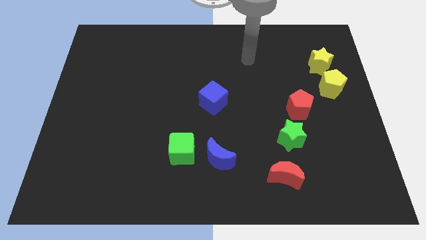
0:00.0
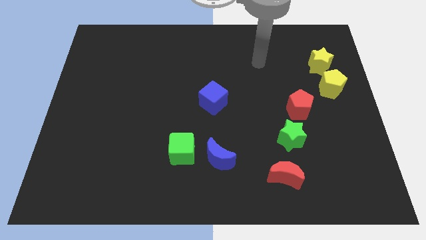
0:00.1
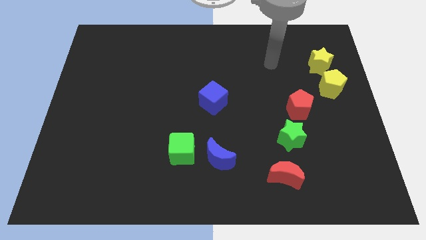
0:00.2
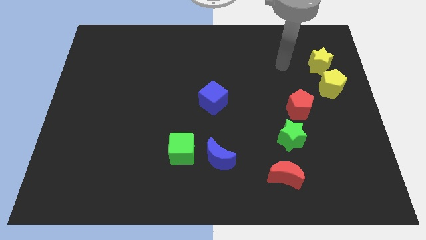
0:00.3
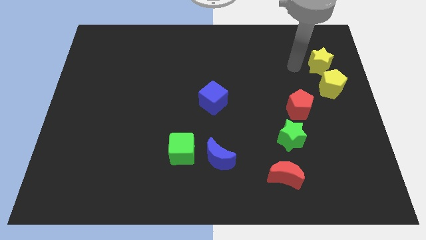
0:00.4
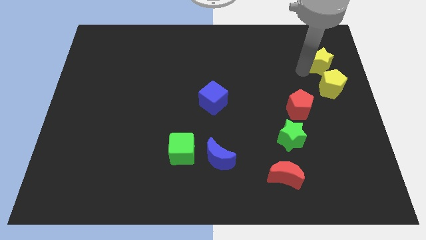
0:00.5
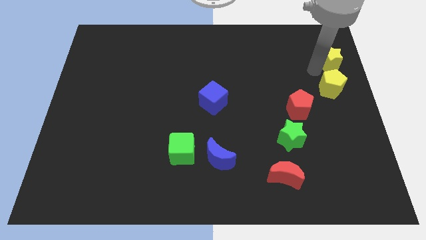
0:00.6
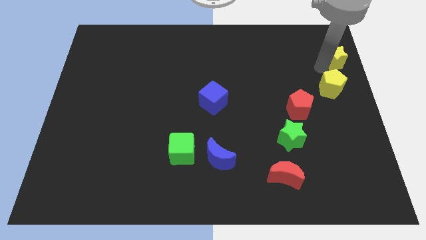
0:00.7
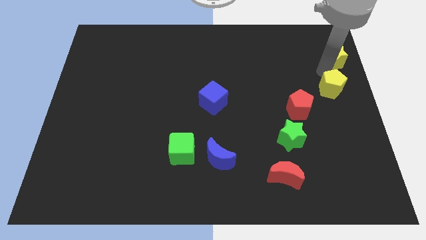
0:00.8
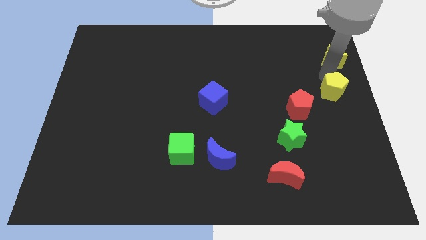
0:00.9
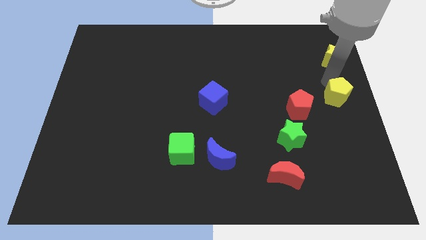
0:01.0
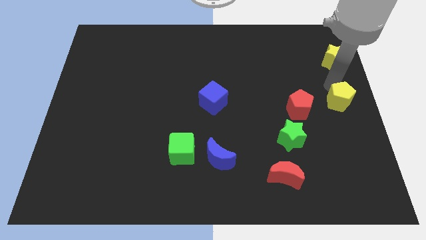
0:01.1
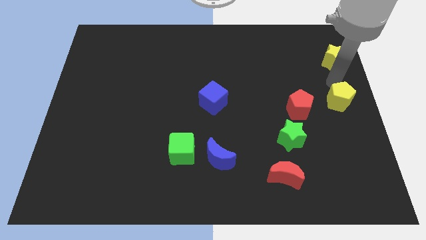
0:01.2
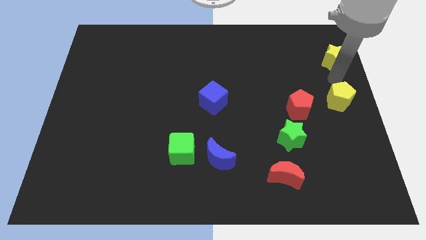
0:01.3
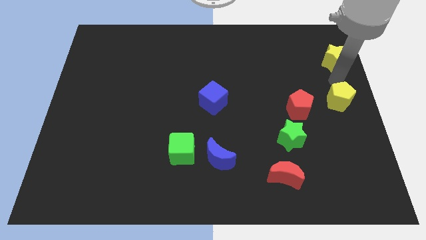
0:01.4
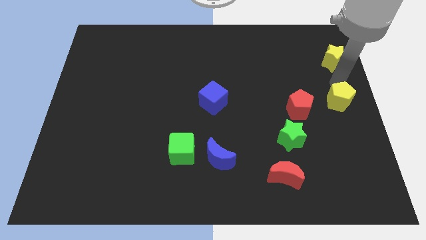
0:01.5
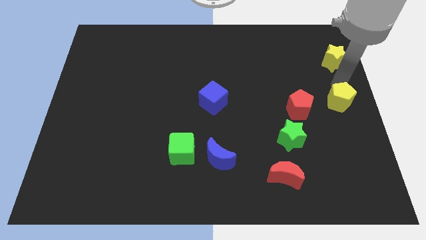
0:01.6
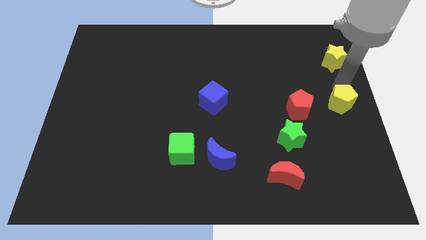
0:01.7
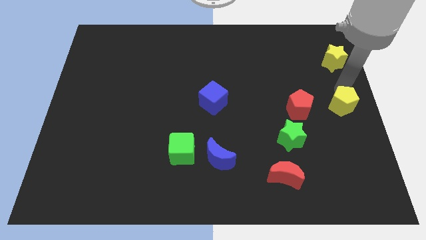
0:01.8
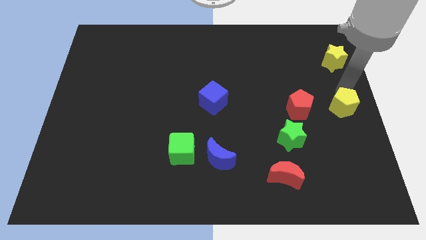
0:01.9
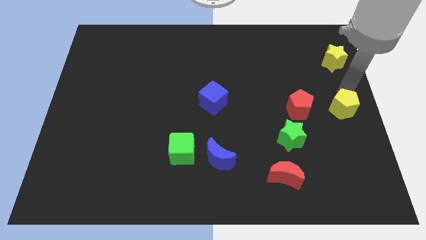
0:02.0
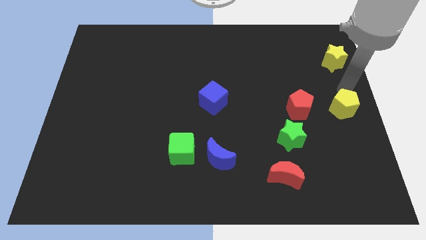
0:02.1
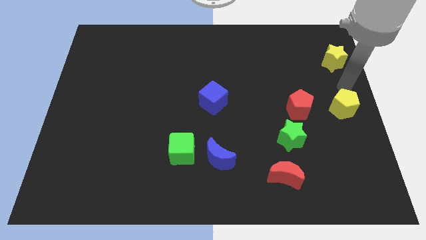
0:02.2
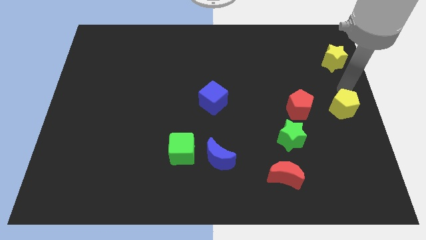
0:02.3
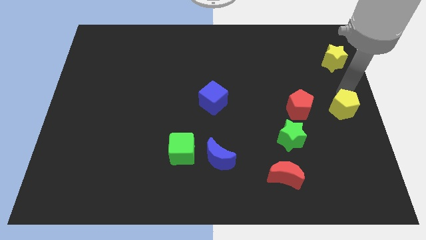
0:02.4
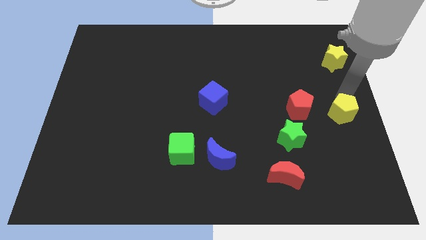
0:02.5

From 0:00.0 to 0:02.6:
slightly slide the yellow pentagon downwards

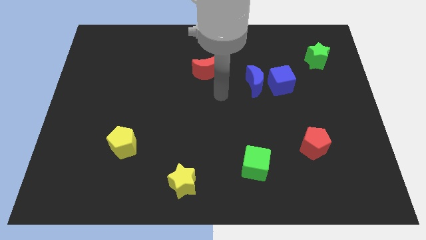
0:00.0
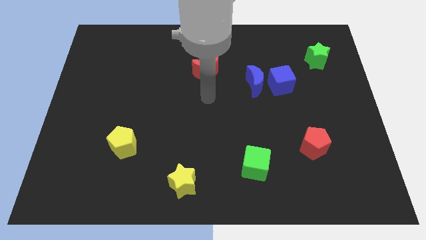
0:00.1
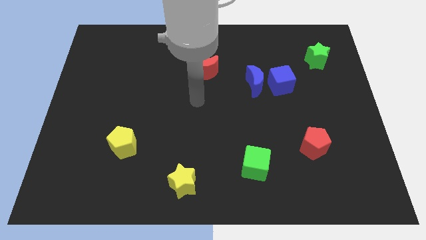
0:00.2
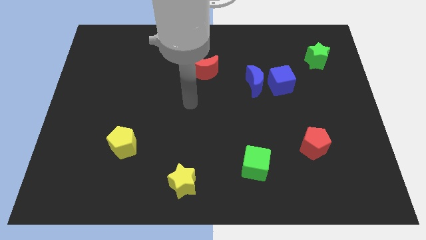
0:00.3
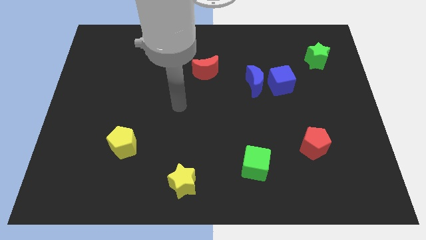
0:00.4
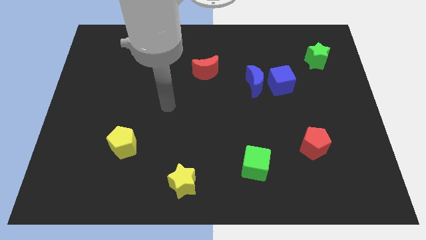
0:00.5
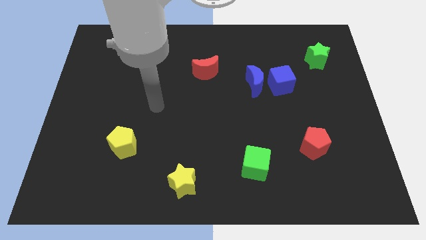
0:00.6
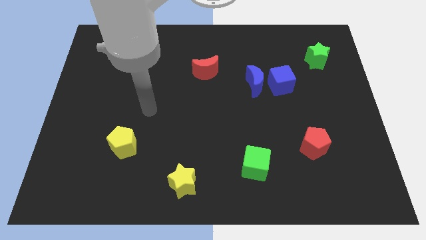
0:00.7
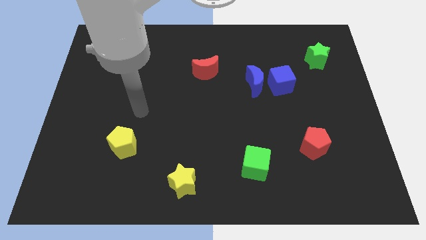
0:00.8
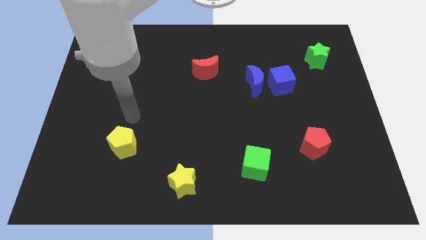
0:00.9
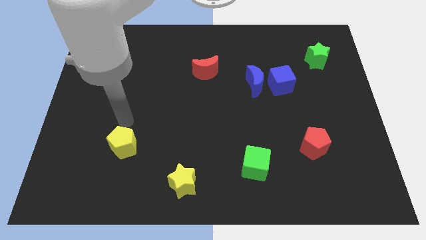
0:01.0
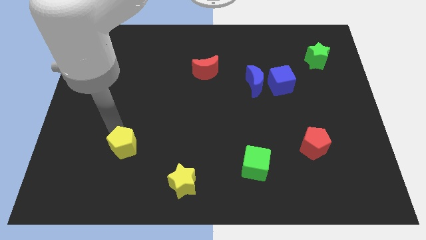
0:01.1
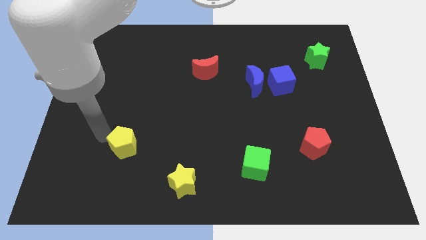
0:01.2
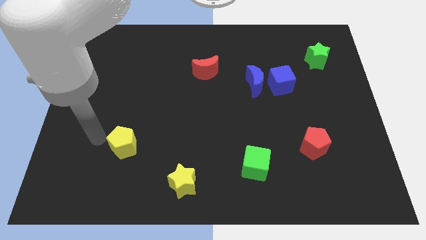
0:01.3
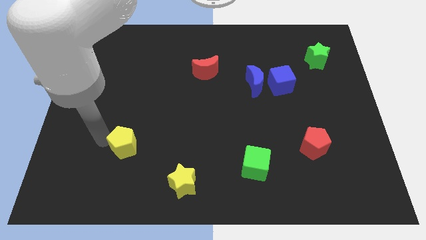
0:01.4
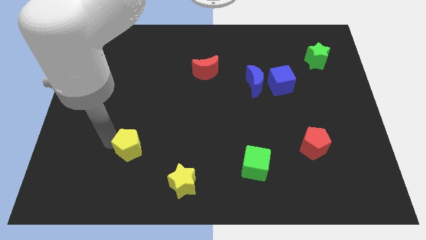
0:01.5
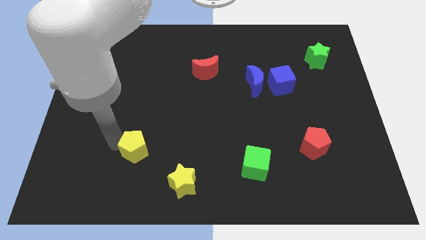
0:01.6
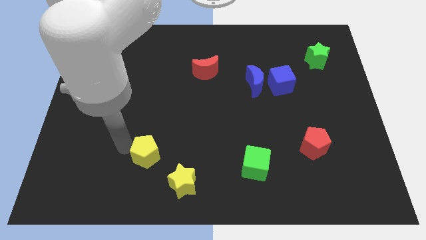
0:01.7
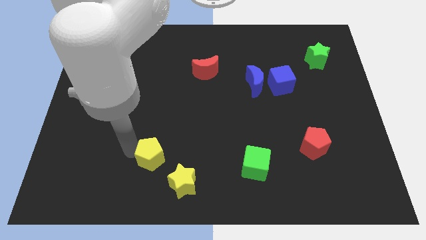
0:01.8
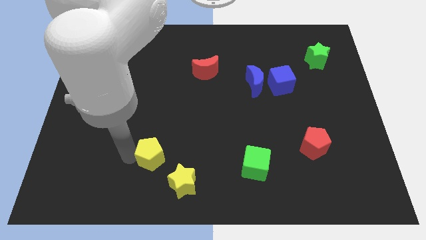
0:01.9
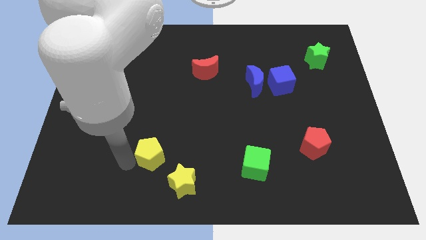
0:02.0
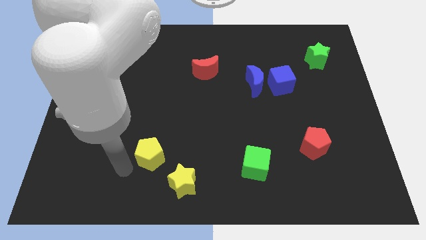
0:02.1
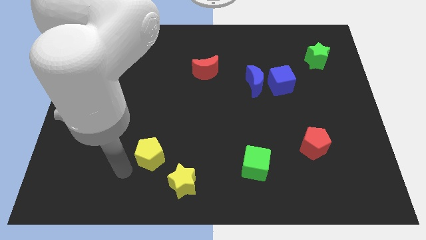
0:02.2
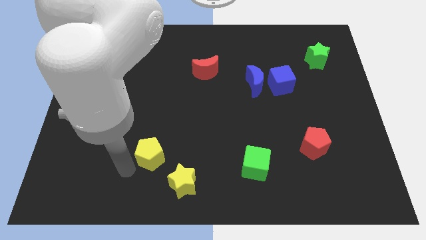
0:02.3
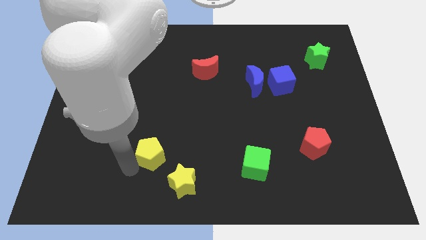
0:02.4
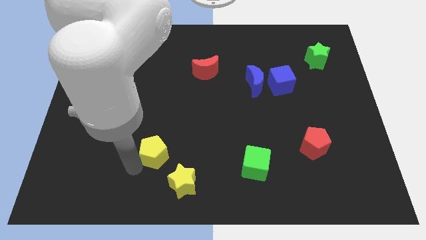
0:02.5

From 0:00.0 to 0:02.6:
slightly slide the yellow pentagon right

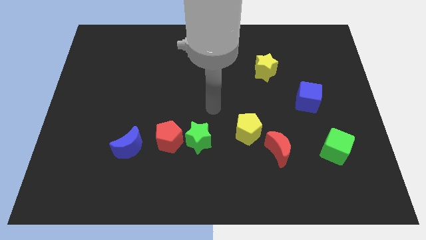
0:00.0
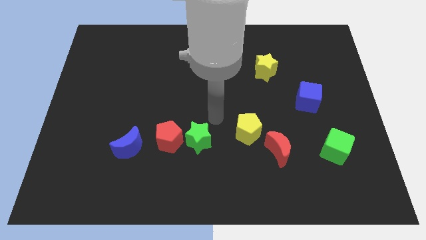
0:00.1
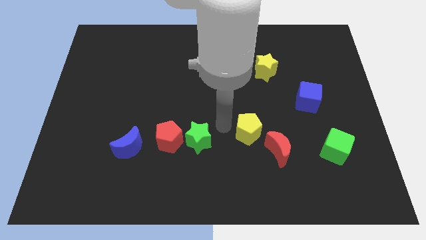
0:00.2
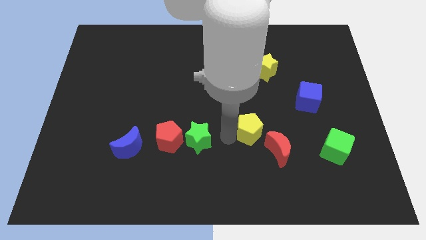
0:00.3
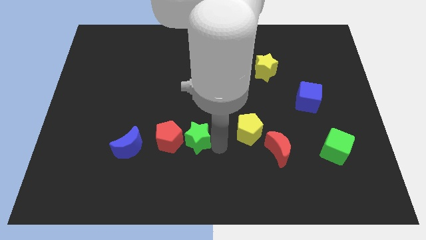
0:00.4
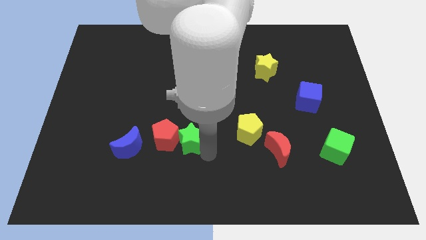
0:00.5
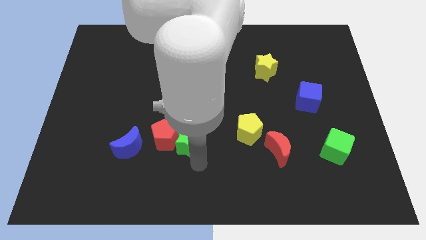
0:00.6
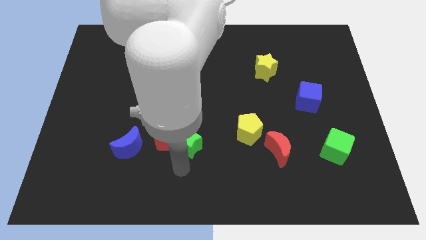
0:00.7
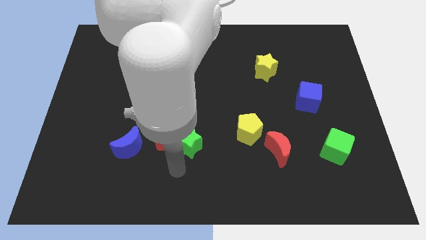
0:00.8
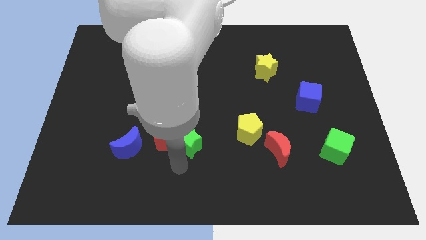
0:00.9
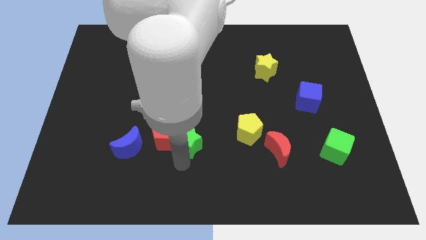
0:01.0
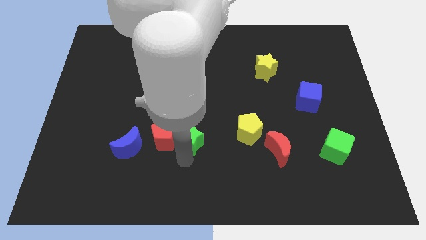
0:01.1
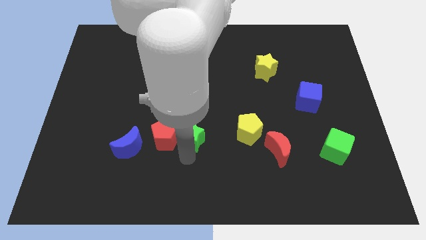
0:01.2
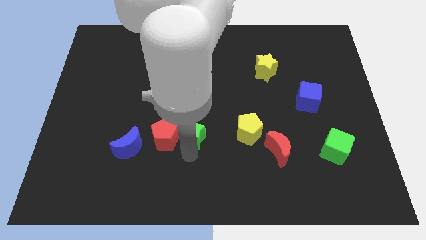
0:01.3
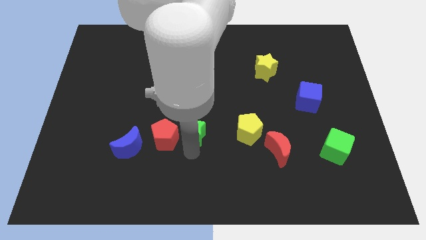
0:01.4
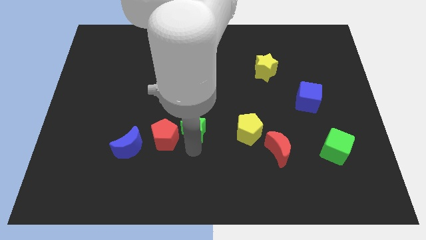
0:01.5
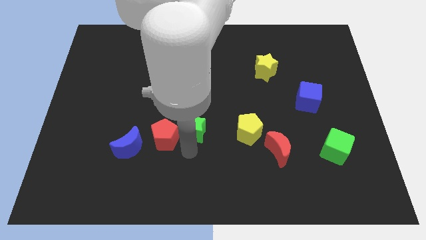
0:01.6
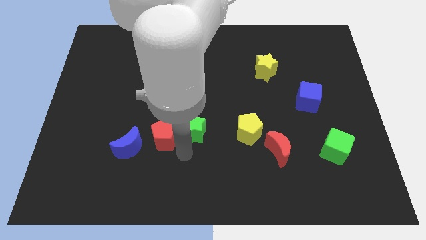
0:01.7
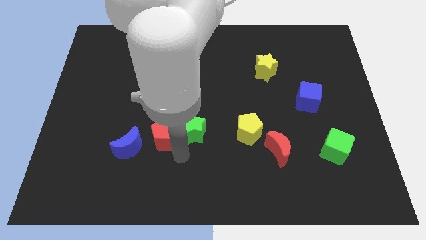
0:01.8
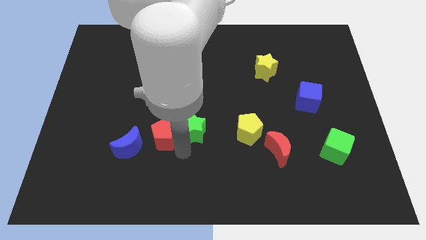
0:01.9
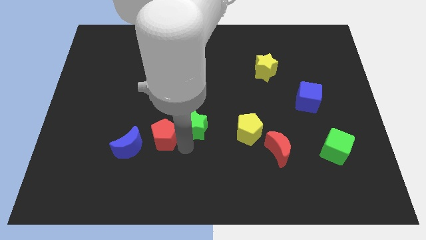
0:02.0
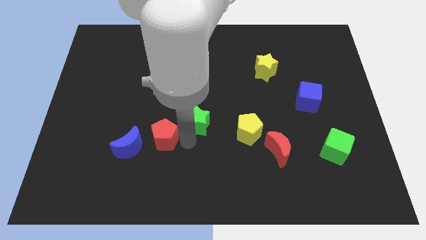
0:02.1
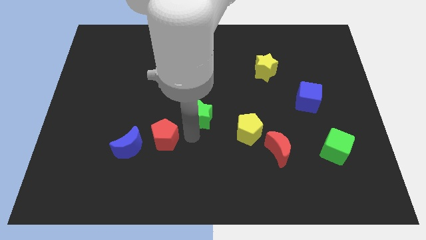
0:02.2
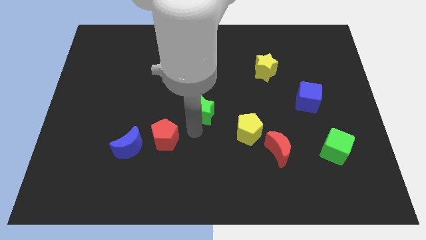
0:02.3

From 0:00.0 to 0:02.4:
slightly slide the green star up

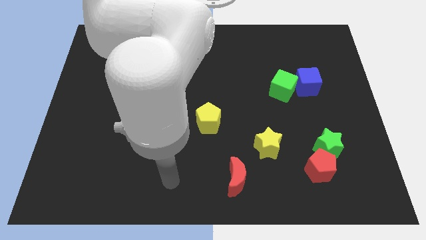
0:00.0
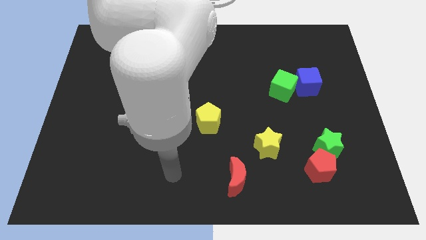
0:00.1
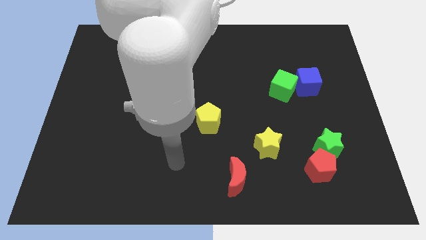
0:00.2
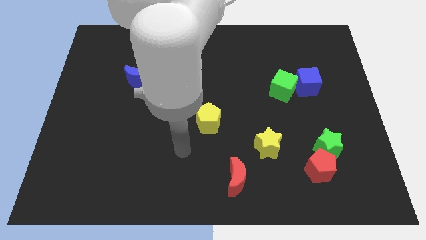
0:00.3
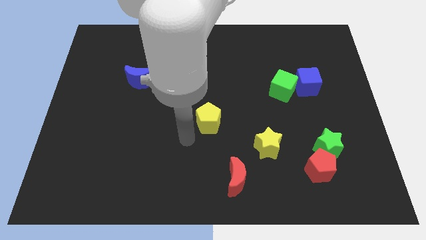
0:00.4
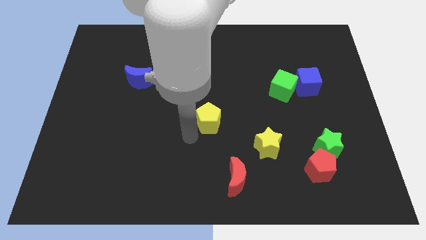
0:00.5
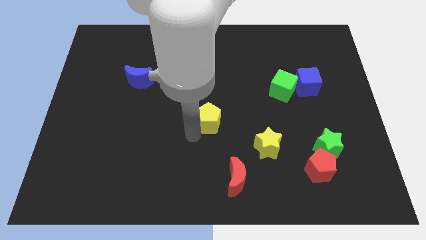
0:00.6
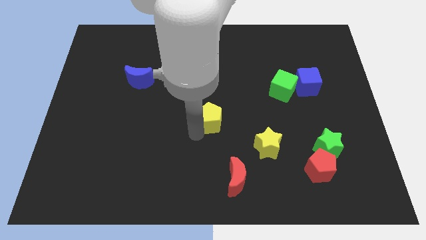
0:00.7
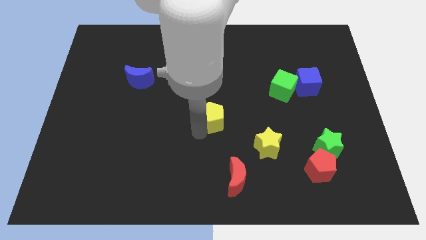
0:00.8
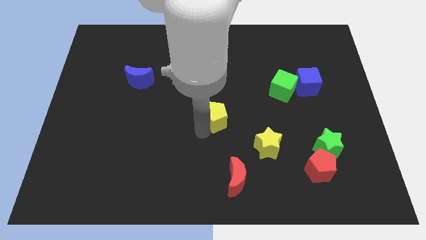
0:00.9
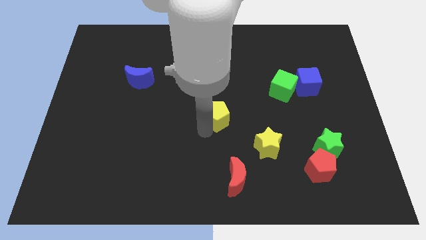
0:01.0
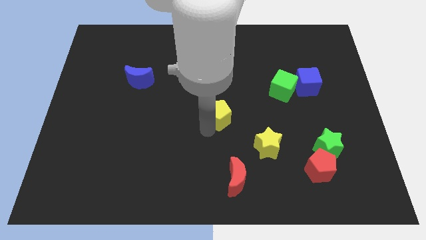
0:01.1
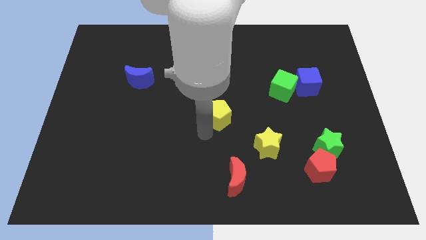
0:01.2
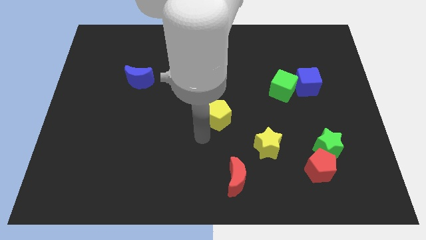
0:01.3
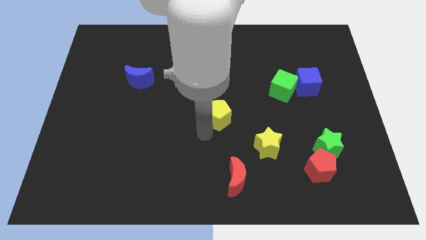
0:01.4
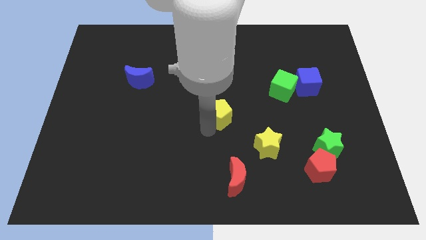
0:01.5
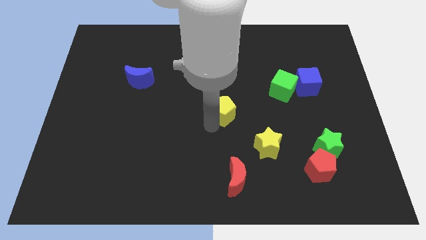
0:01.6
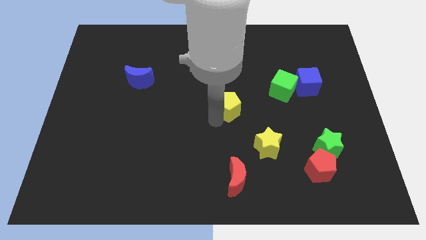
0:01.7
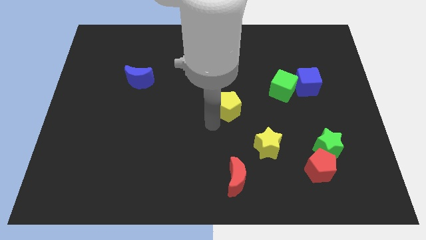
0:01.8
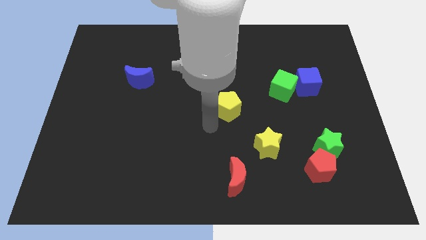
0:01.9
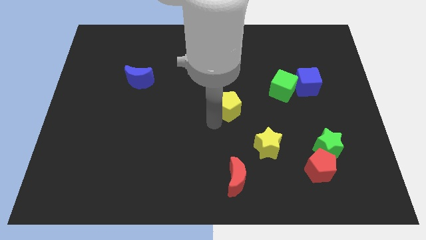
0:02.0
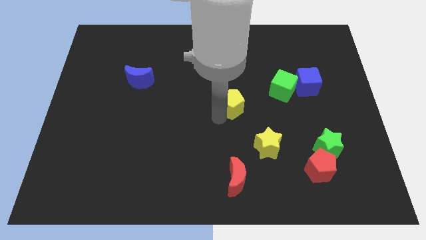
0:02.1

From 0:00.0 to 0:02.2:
slightly push the yellow pentagon diagonally upwards and right
